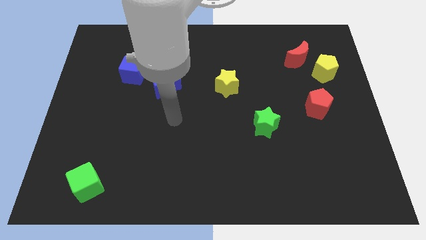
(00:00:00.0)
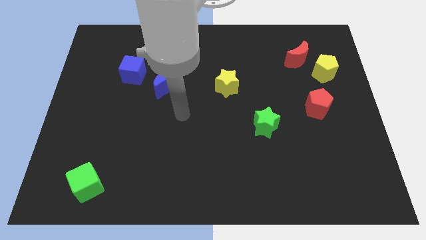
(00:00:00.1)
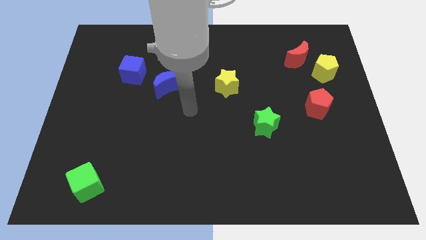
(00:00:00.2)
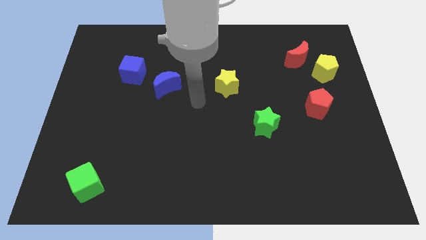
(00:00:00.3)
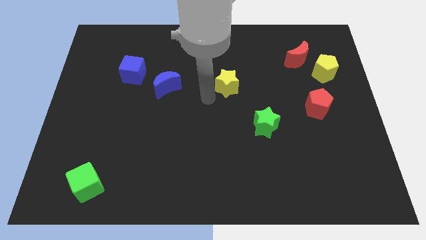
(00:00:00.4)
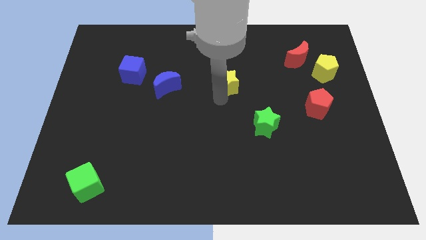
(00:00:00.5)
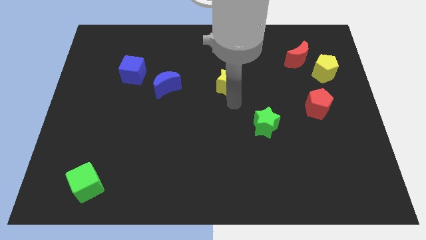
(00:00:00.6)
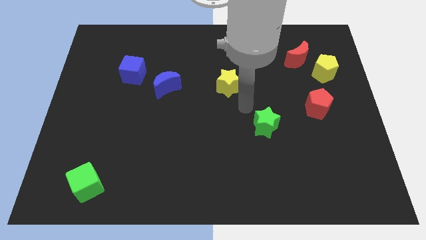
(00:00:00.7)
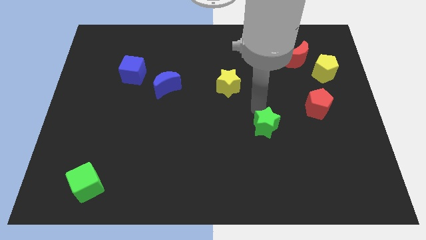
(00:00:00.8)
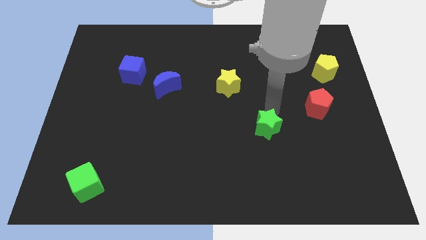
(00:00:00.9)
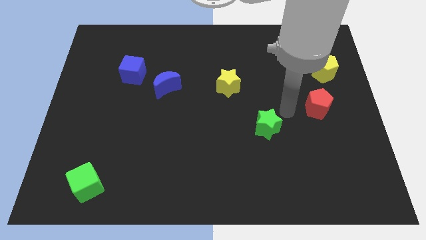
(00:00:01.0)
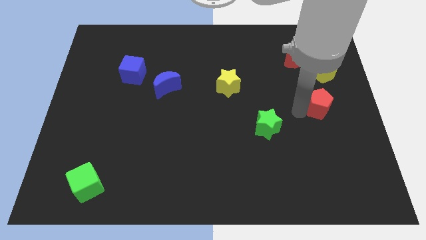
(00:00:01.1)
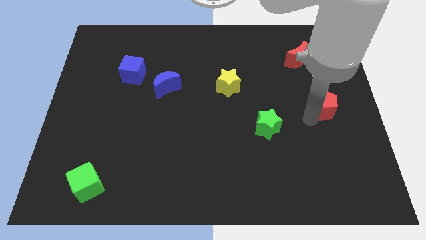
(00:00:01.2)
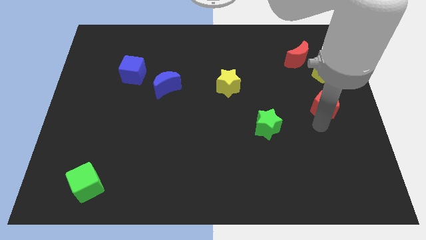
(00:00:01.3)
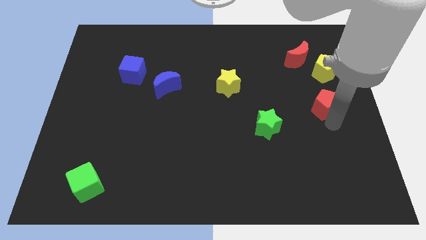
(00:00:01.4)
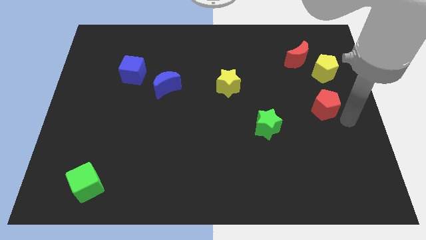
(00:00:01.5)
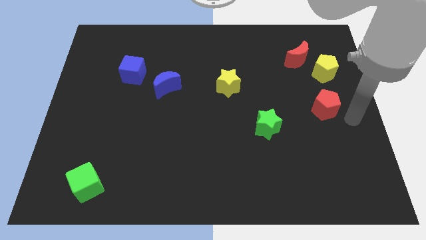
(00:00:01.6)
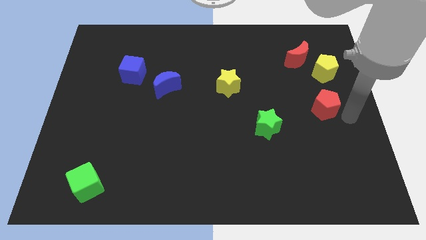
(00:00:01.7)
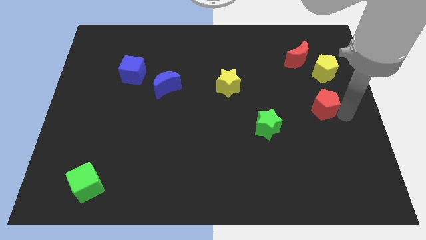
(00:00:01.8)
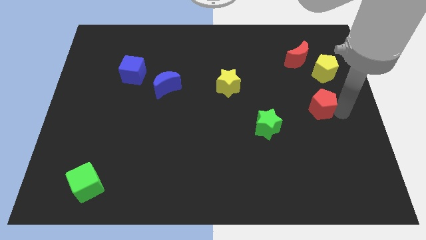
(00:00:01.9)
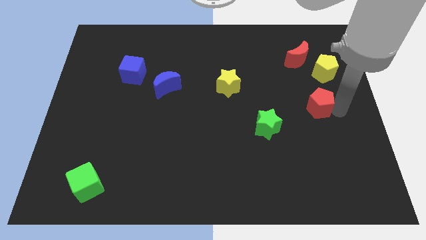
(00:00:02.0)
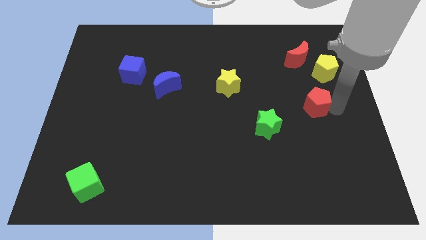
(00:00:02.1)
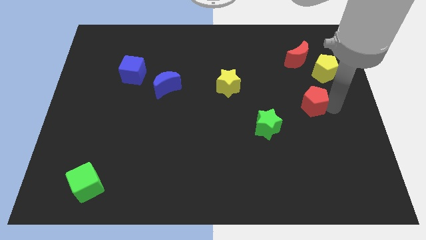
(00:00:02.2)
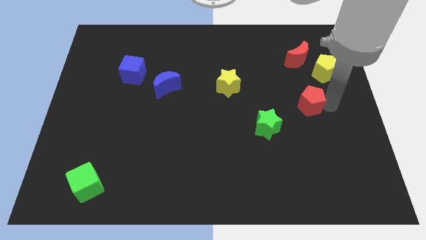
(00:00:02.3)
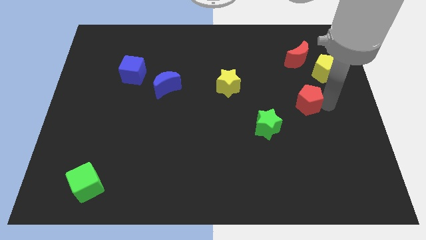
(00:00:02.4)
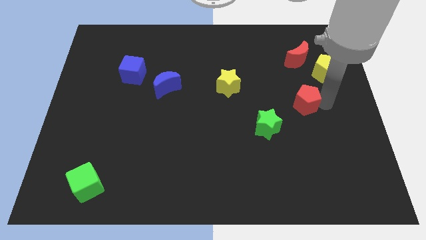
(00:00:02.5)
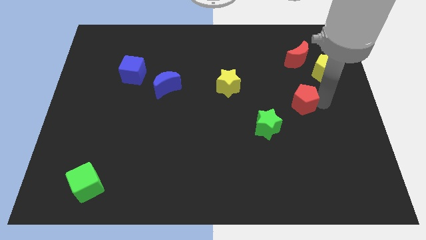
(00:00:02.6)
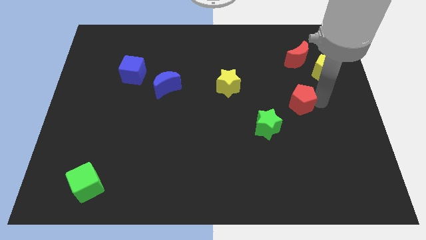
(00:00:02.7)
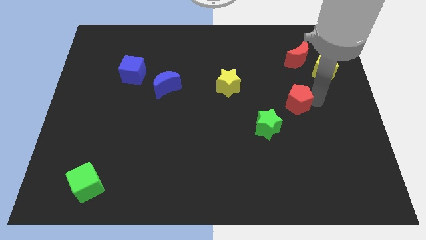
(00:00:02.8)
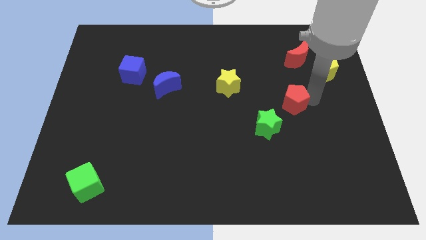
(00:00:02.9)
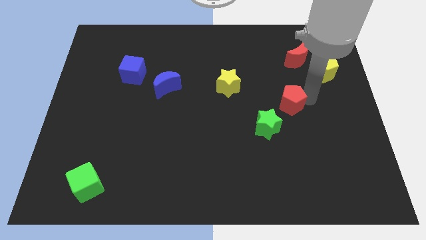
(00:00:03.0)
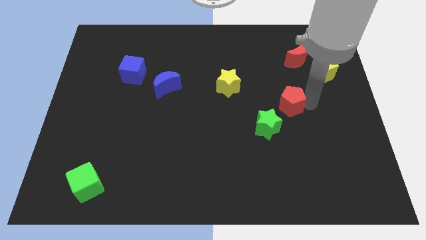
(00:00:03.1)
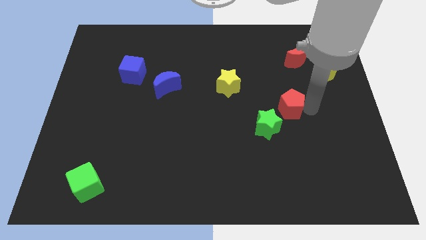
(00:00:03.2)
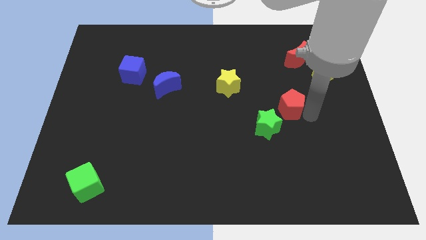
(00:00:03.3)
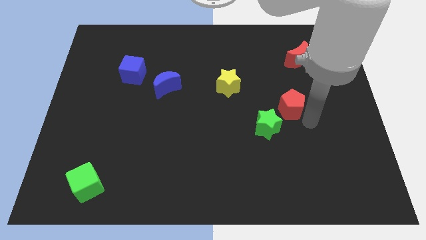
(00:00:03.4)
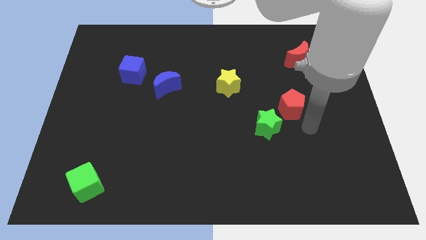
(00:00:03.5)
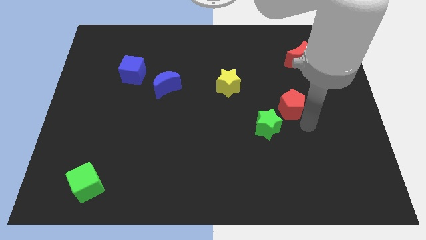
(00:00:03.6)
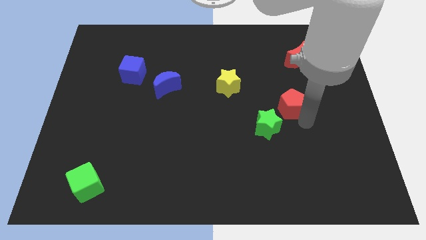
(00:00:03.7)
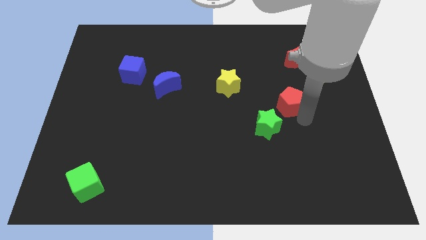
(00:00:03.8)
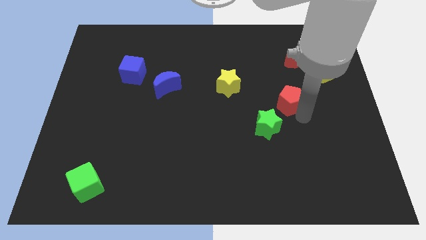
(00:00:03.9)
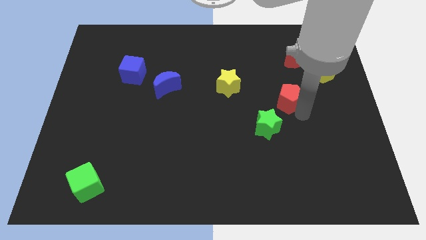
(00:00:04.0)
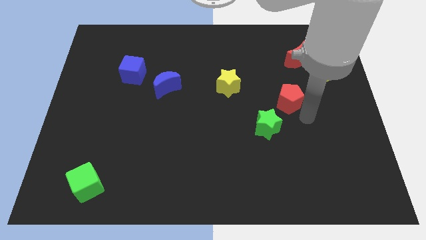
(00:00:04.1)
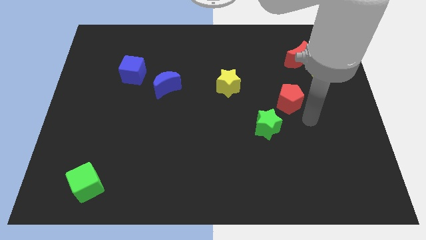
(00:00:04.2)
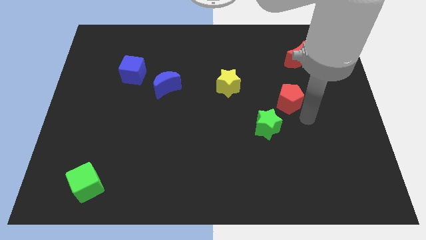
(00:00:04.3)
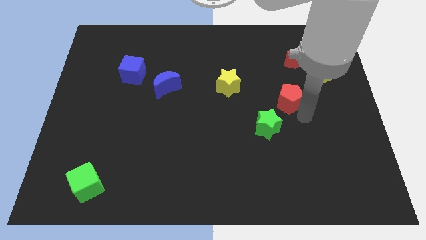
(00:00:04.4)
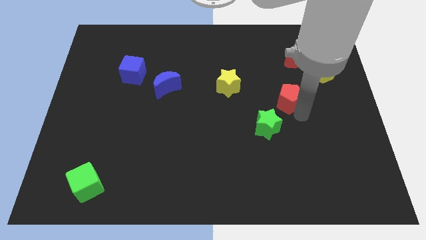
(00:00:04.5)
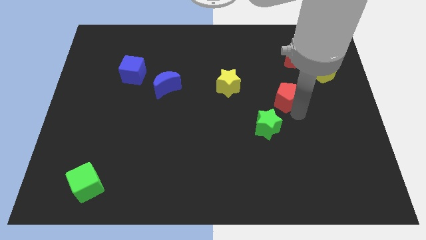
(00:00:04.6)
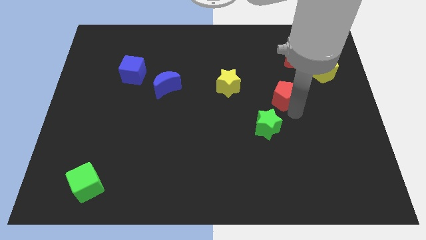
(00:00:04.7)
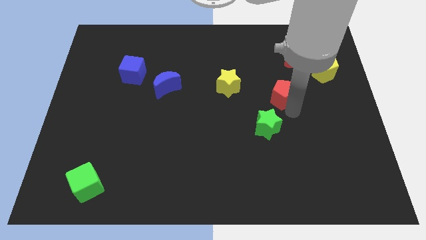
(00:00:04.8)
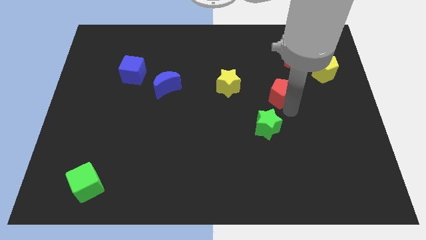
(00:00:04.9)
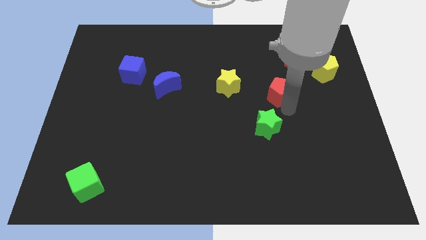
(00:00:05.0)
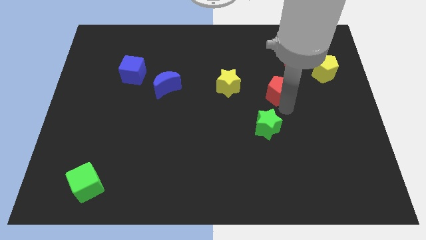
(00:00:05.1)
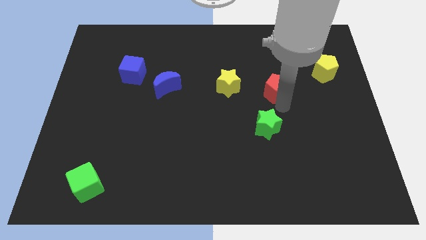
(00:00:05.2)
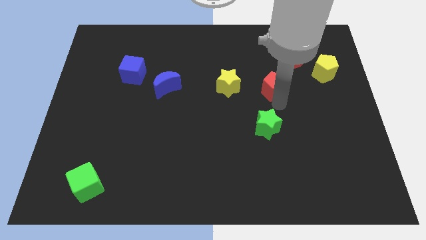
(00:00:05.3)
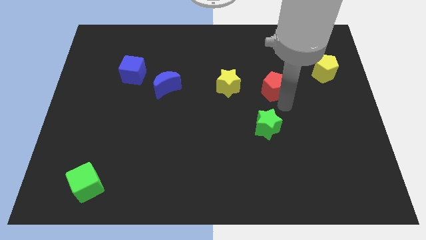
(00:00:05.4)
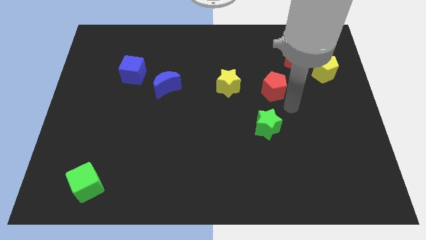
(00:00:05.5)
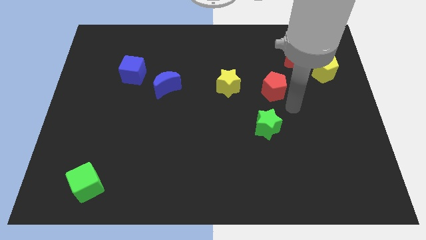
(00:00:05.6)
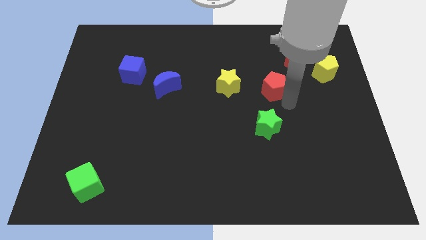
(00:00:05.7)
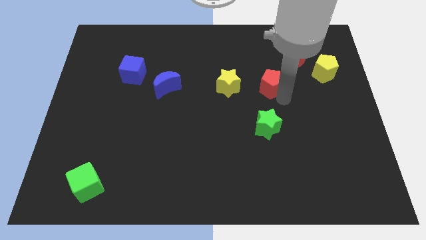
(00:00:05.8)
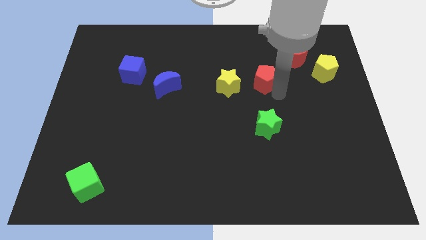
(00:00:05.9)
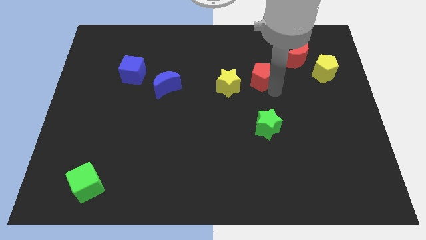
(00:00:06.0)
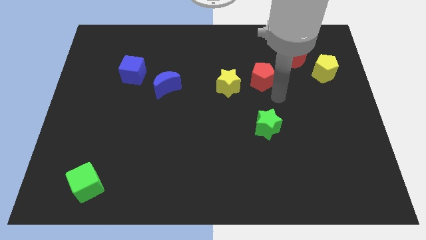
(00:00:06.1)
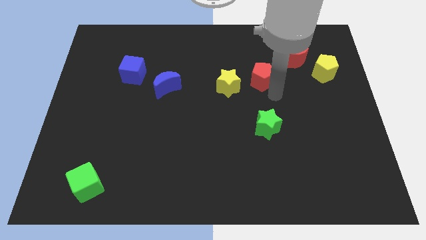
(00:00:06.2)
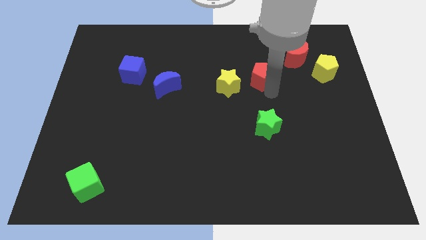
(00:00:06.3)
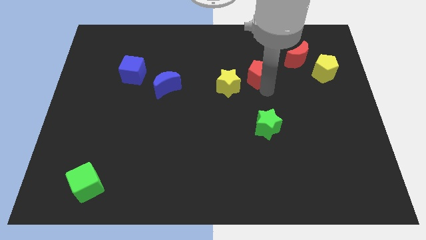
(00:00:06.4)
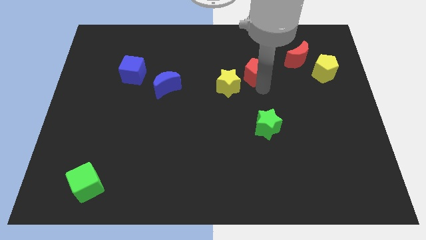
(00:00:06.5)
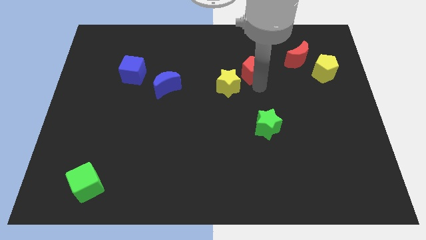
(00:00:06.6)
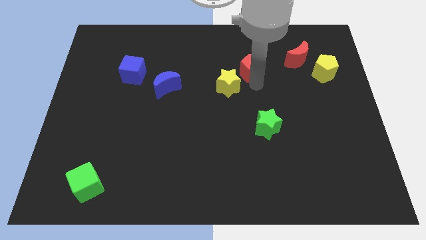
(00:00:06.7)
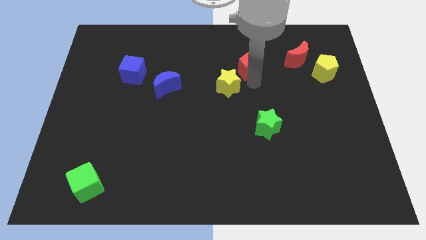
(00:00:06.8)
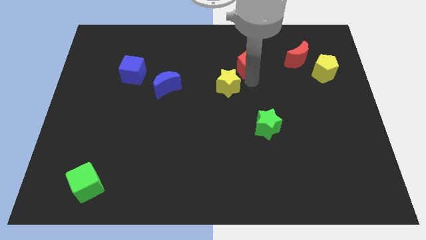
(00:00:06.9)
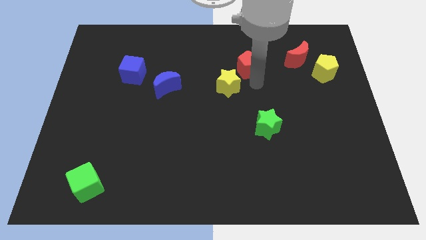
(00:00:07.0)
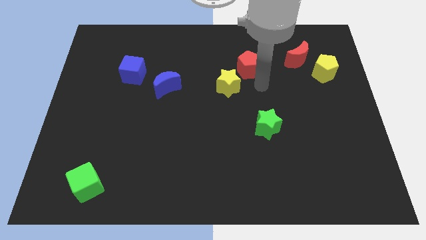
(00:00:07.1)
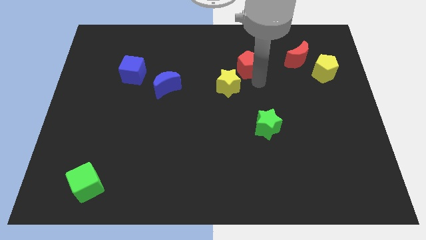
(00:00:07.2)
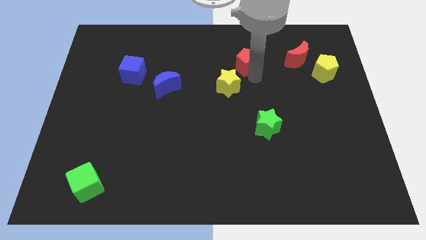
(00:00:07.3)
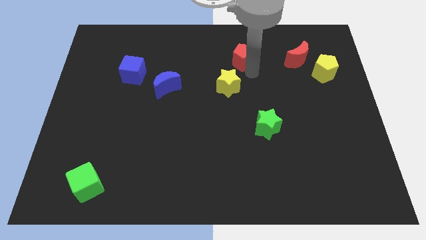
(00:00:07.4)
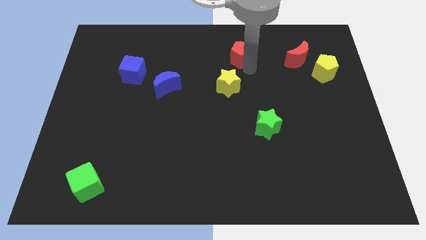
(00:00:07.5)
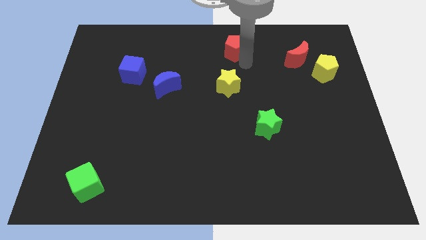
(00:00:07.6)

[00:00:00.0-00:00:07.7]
move the red pentagon to the towards your base
